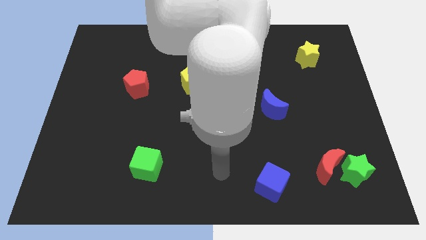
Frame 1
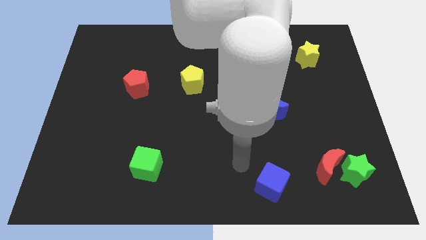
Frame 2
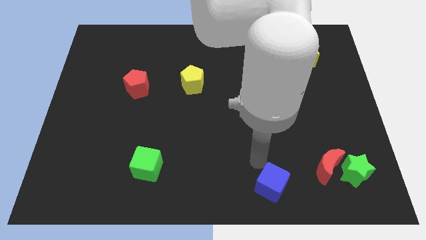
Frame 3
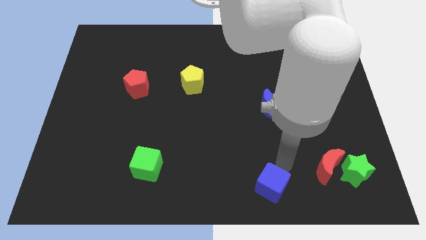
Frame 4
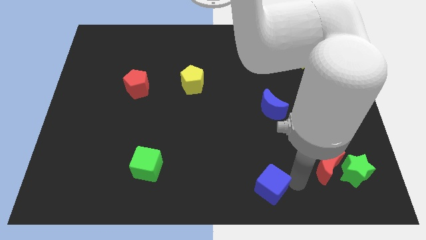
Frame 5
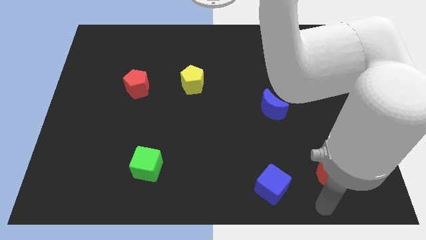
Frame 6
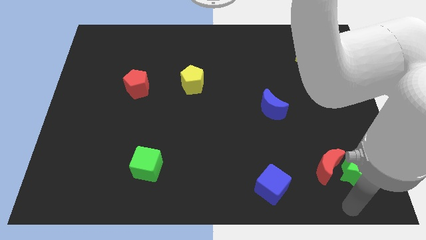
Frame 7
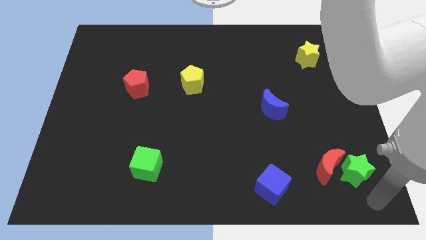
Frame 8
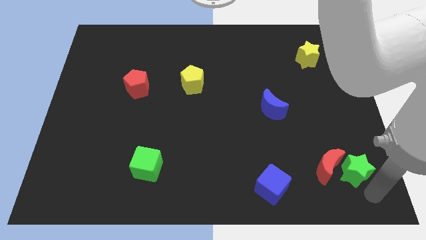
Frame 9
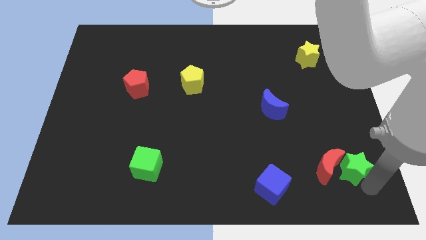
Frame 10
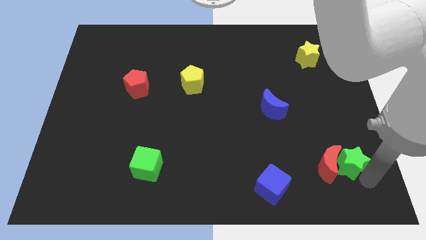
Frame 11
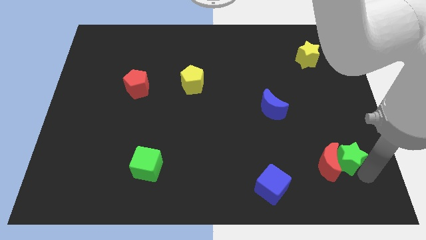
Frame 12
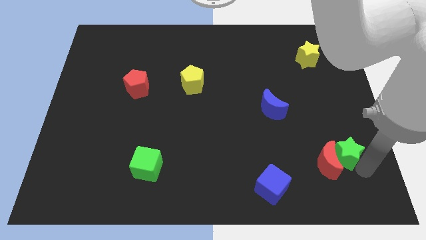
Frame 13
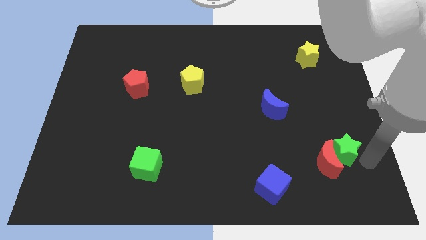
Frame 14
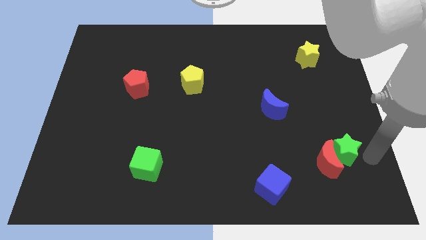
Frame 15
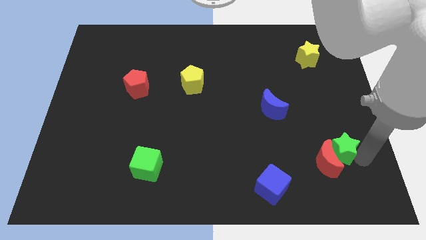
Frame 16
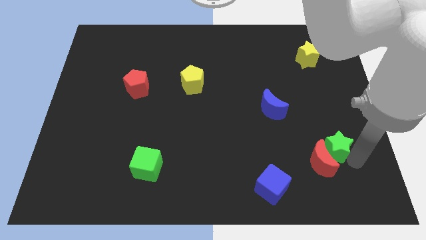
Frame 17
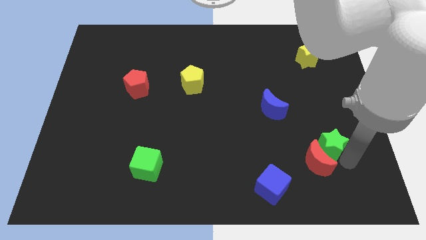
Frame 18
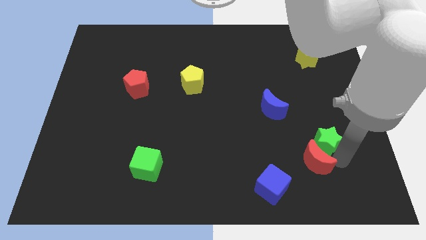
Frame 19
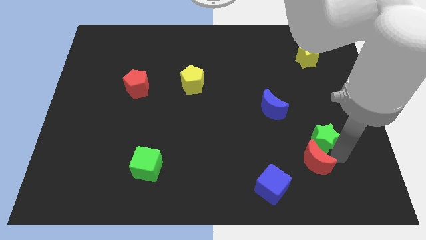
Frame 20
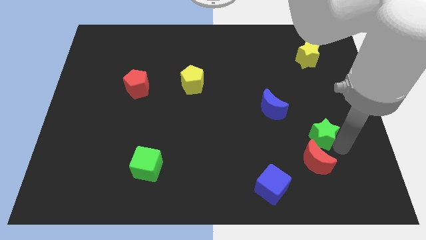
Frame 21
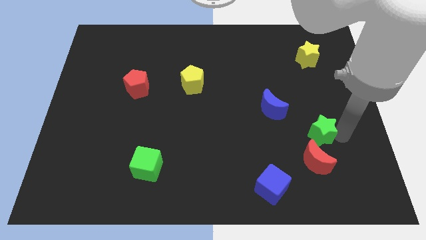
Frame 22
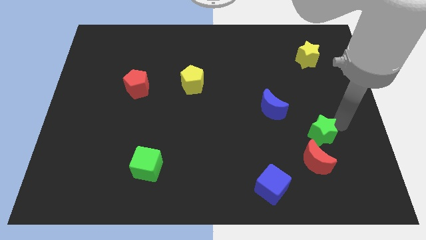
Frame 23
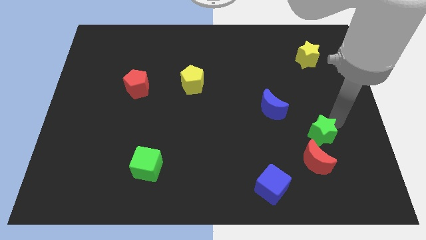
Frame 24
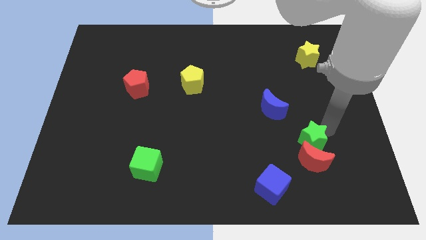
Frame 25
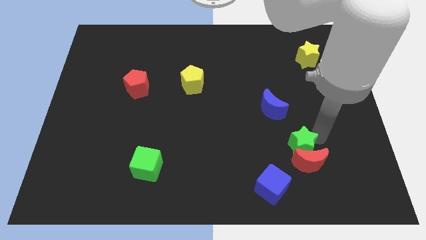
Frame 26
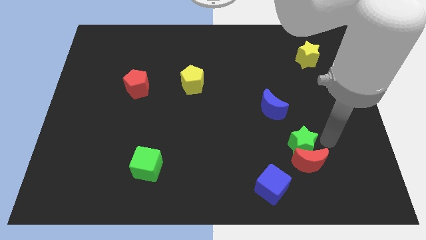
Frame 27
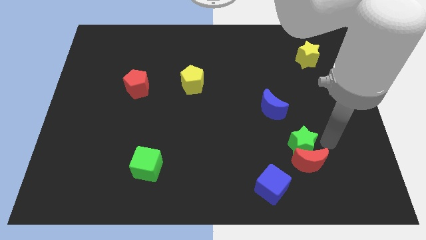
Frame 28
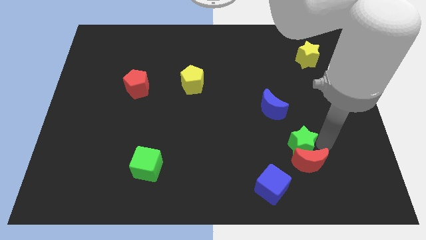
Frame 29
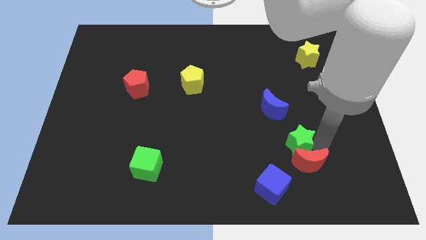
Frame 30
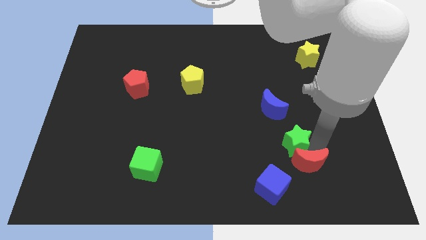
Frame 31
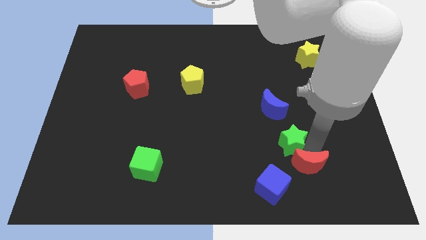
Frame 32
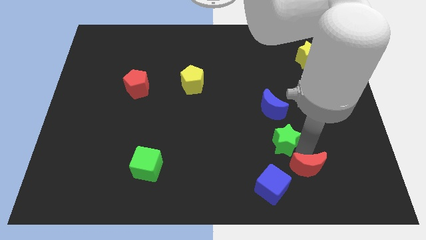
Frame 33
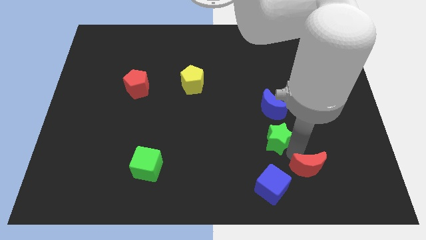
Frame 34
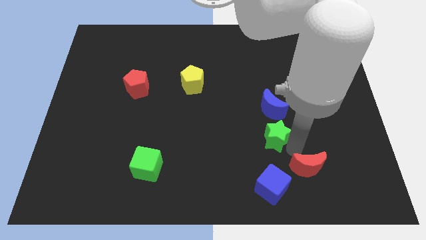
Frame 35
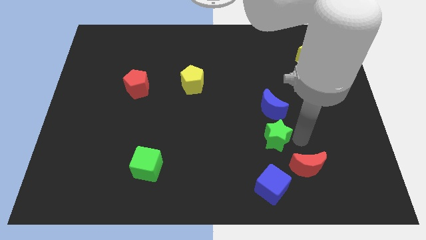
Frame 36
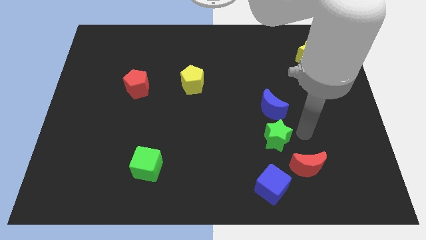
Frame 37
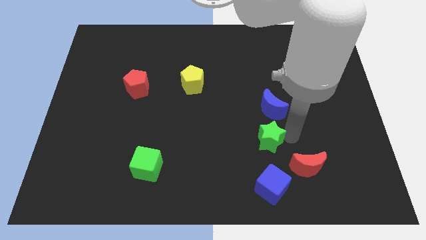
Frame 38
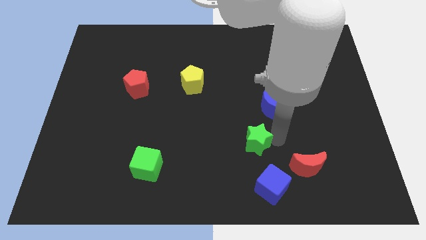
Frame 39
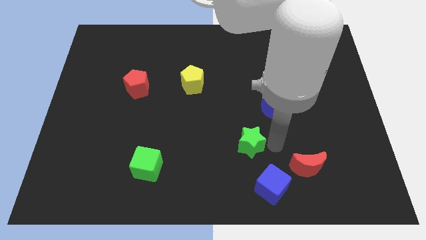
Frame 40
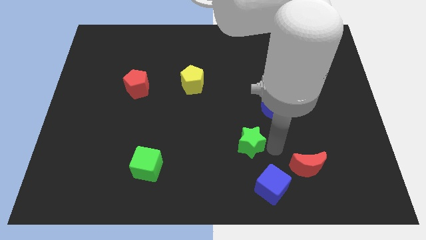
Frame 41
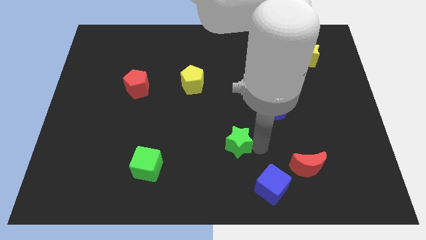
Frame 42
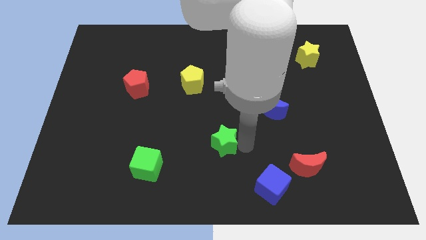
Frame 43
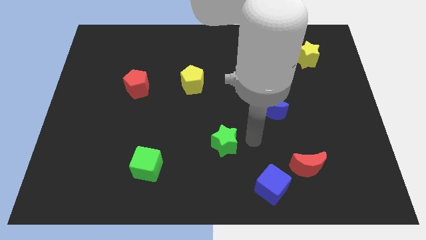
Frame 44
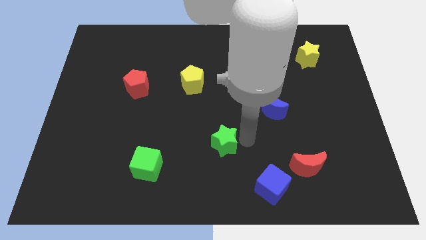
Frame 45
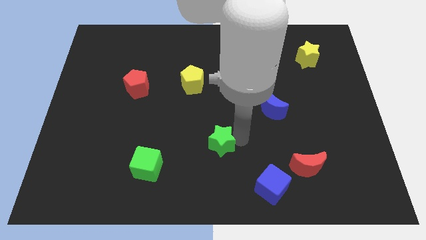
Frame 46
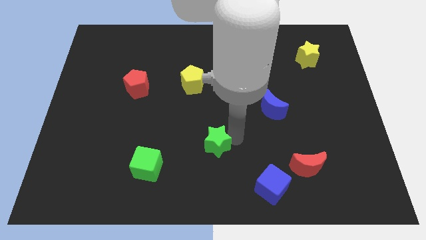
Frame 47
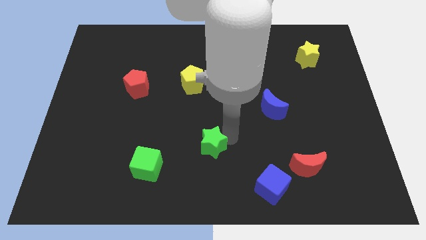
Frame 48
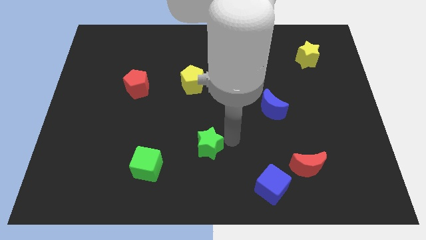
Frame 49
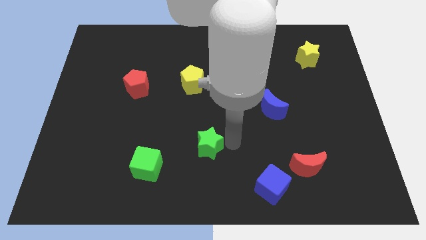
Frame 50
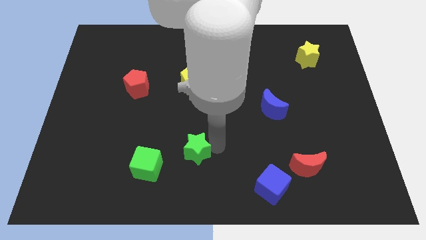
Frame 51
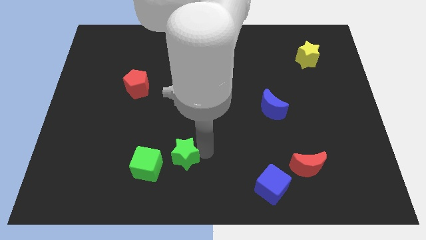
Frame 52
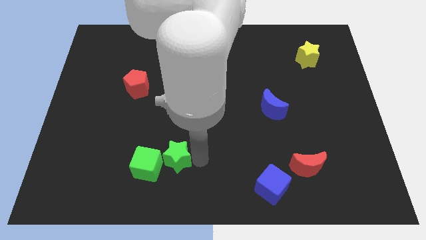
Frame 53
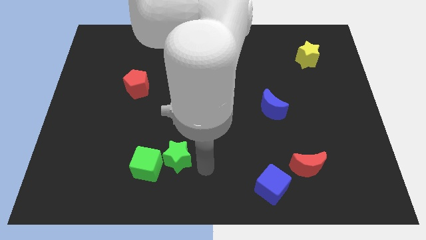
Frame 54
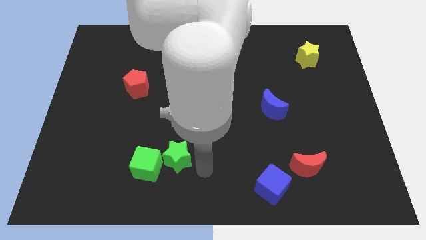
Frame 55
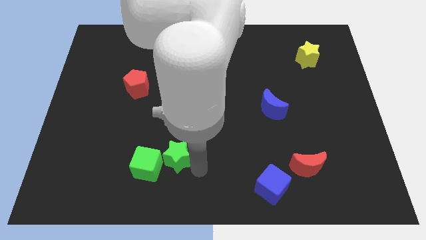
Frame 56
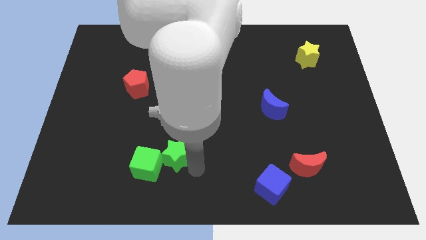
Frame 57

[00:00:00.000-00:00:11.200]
slide the green star close to the green cube

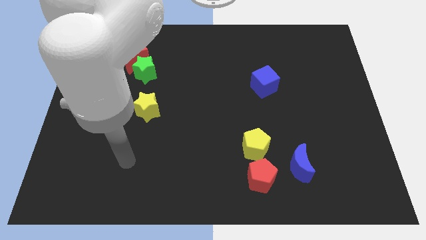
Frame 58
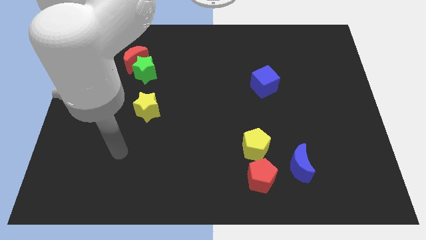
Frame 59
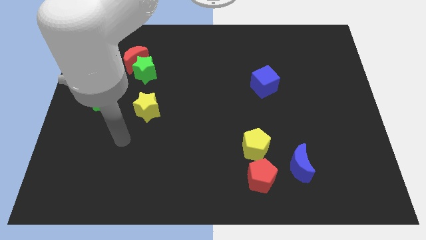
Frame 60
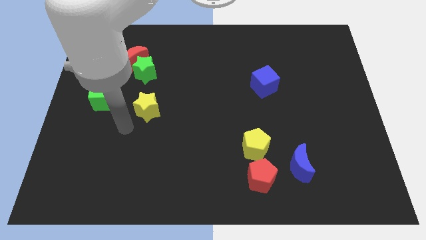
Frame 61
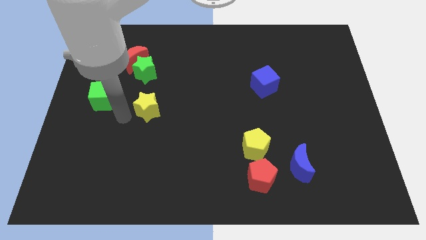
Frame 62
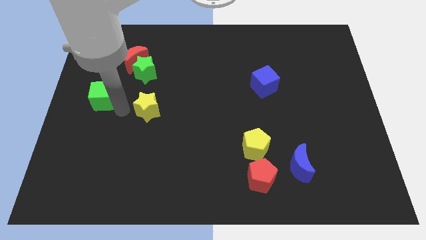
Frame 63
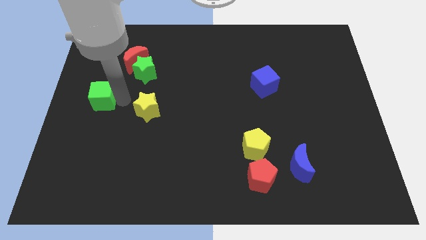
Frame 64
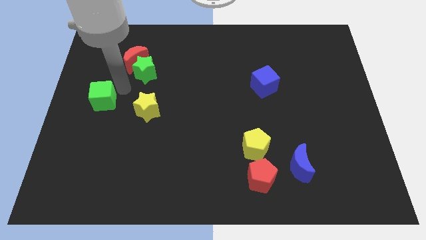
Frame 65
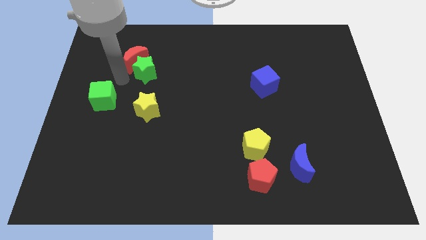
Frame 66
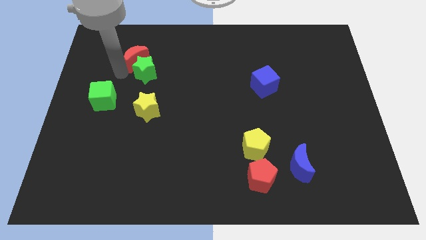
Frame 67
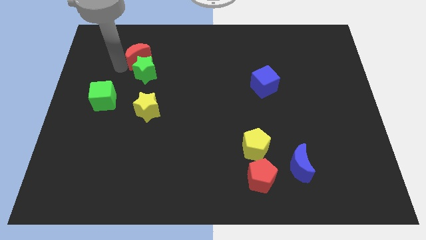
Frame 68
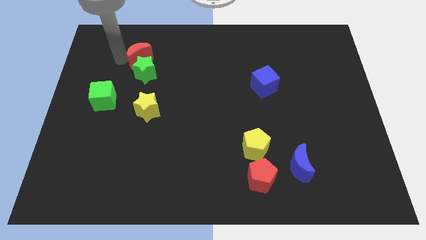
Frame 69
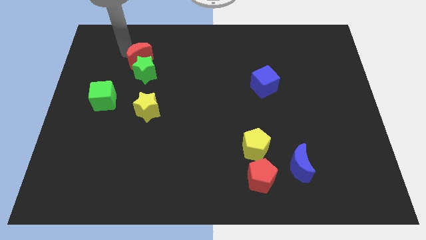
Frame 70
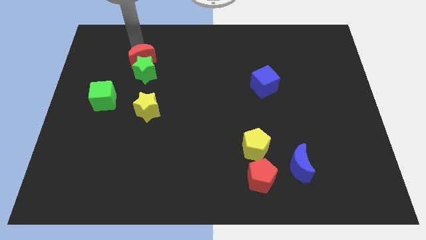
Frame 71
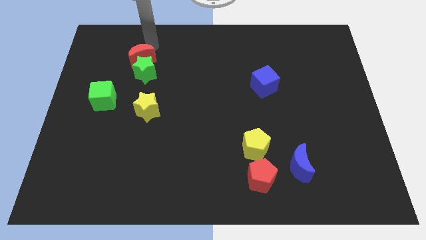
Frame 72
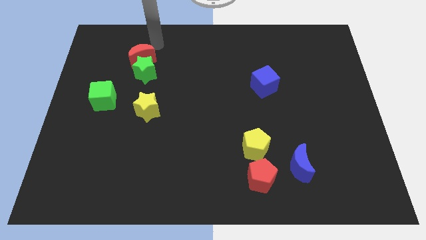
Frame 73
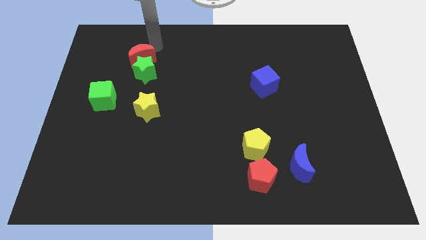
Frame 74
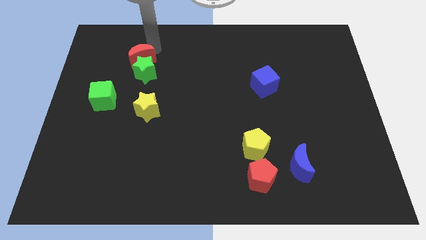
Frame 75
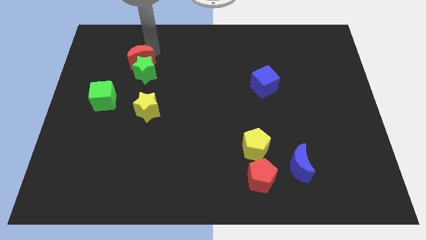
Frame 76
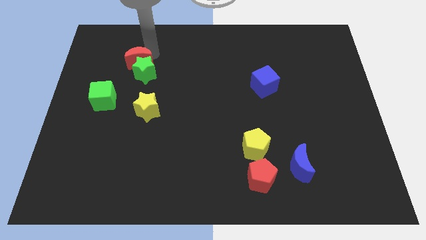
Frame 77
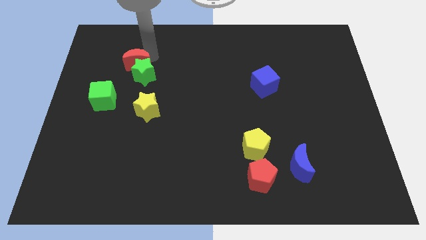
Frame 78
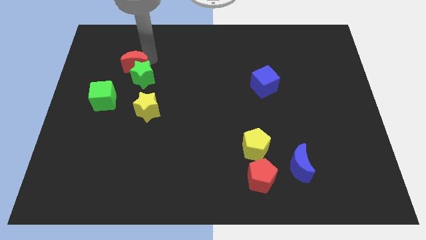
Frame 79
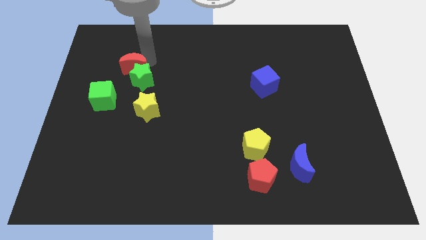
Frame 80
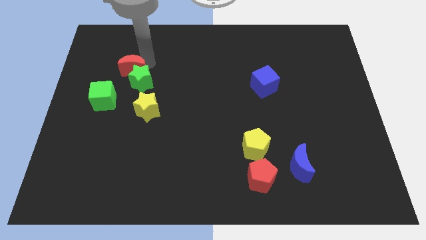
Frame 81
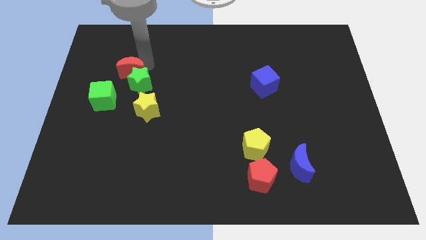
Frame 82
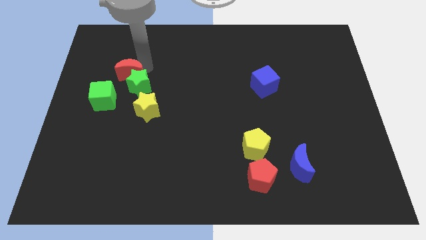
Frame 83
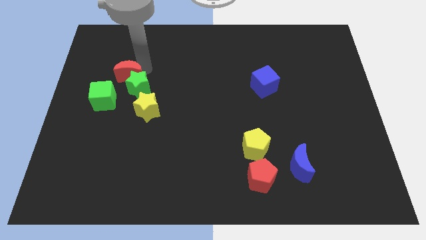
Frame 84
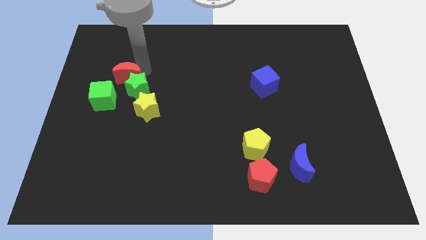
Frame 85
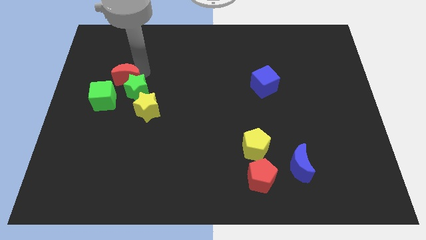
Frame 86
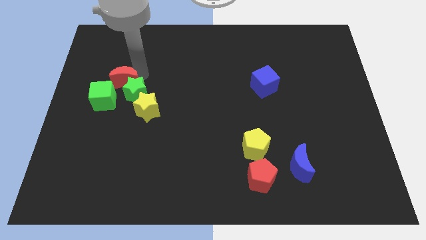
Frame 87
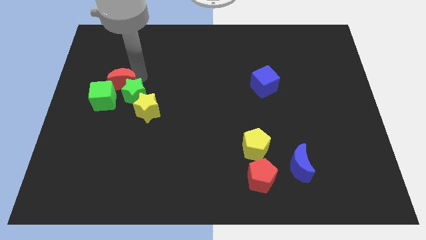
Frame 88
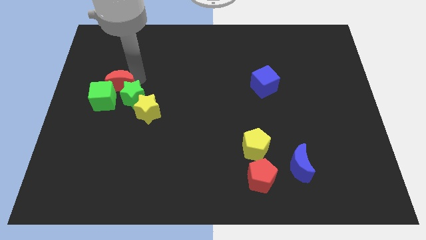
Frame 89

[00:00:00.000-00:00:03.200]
slide the red moon close to the green cube
